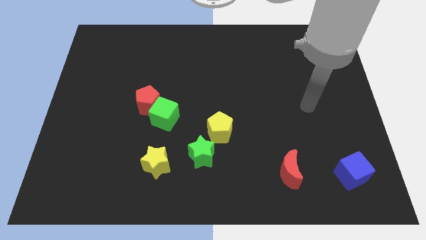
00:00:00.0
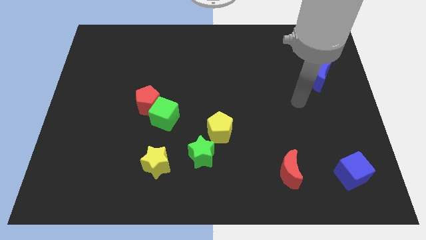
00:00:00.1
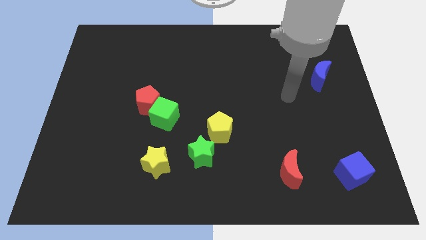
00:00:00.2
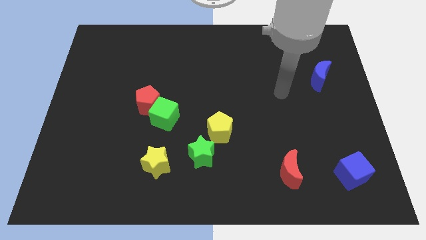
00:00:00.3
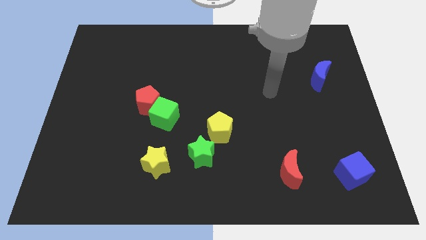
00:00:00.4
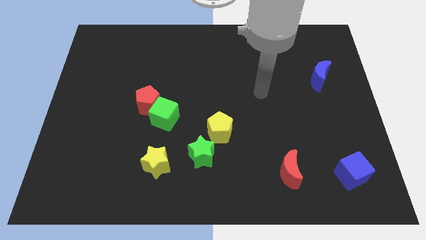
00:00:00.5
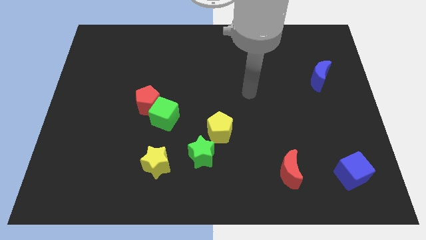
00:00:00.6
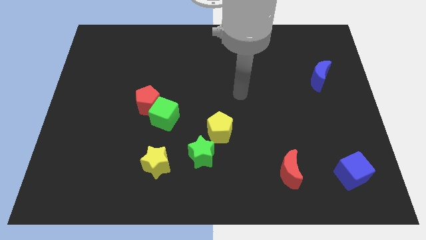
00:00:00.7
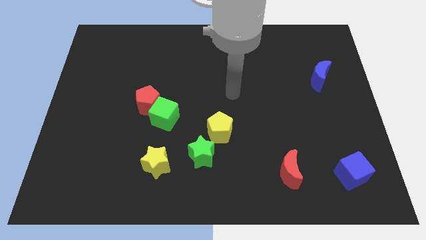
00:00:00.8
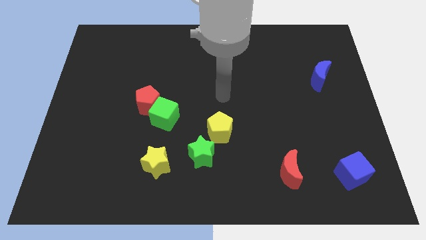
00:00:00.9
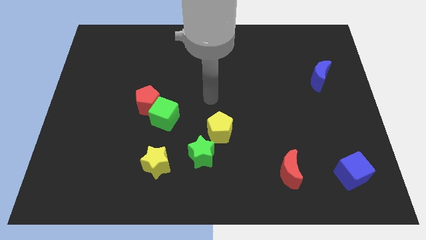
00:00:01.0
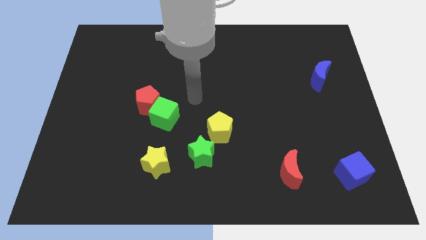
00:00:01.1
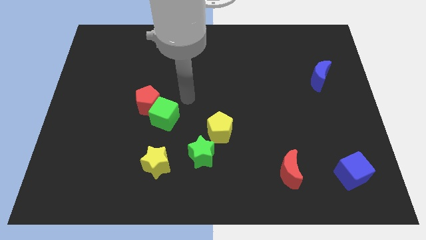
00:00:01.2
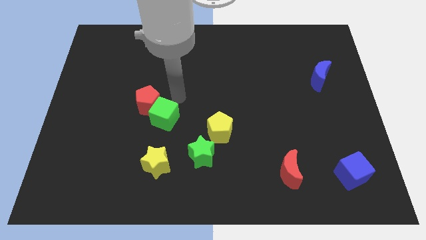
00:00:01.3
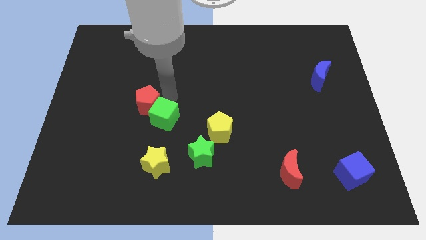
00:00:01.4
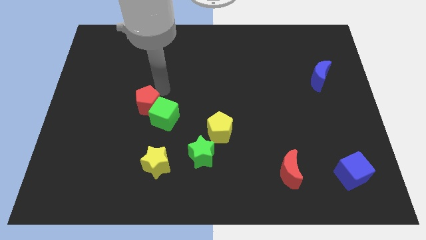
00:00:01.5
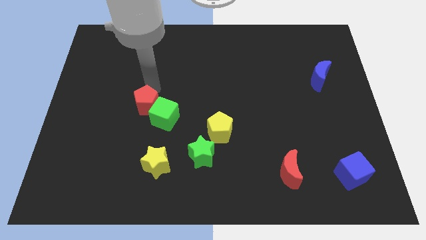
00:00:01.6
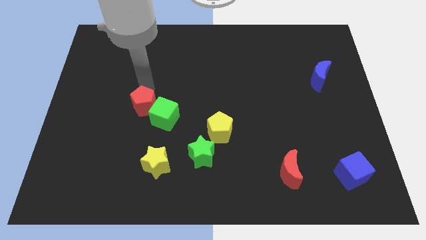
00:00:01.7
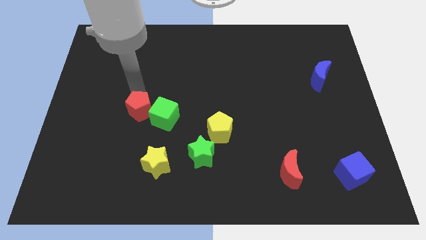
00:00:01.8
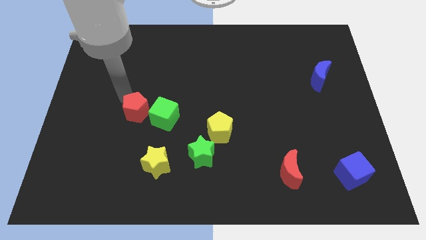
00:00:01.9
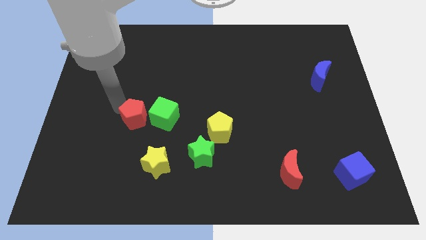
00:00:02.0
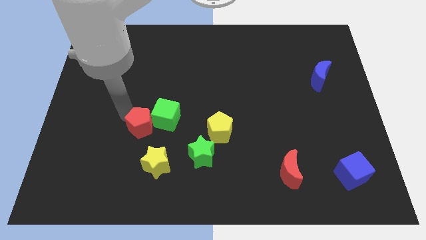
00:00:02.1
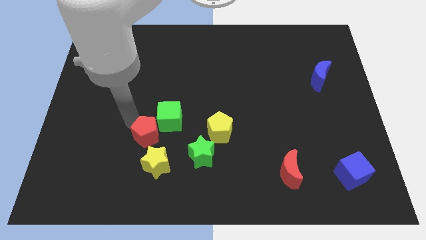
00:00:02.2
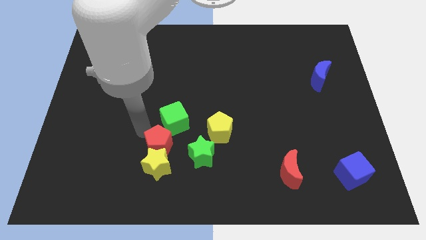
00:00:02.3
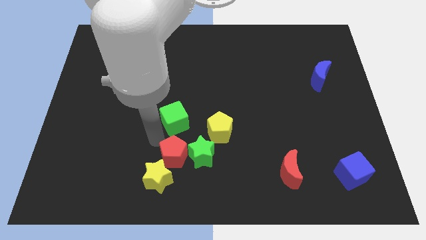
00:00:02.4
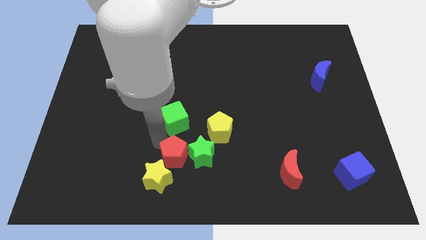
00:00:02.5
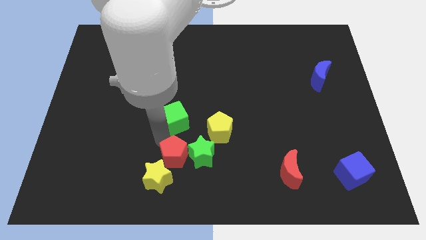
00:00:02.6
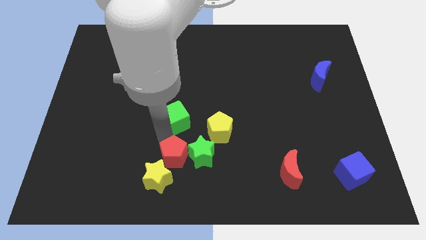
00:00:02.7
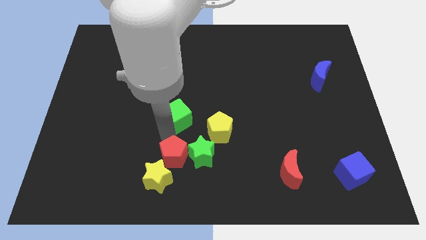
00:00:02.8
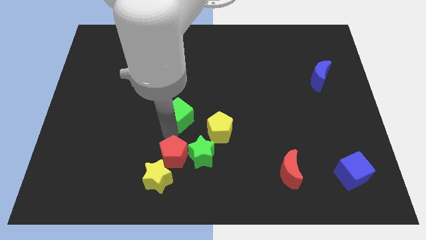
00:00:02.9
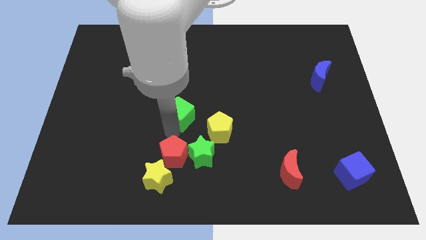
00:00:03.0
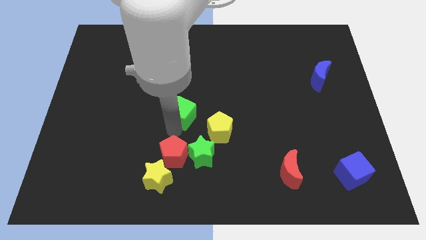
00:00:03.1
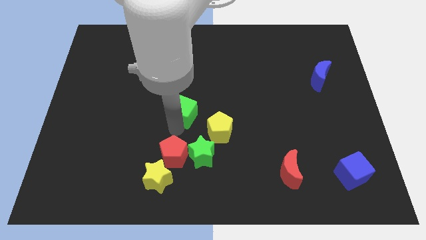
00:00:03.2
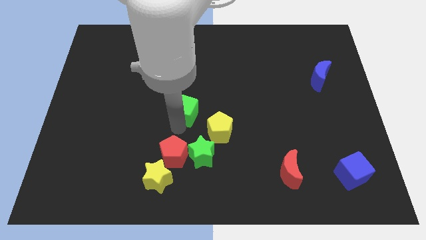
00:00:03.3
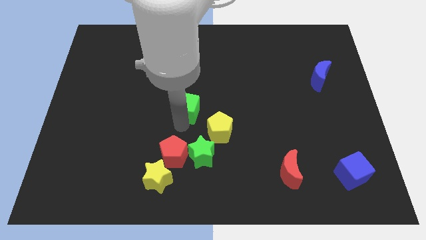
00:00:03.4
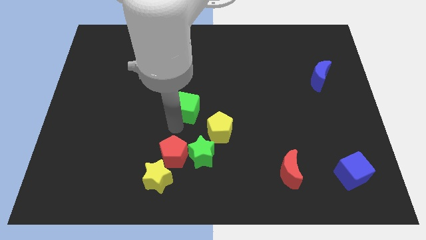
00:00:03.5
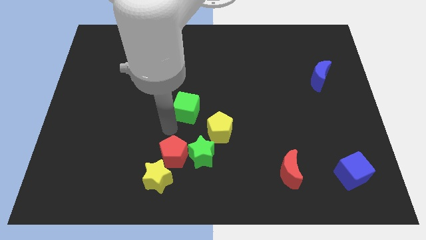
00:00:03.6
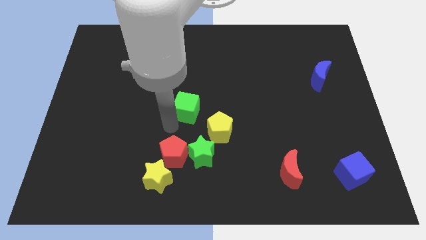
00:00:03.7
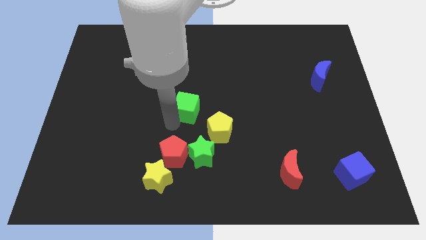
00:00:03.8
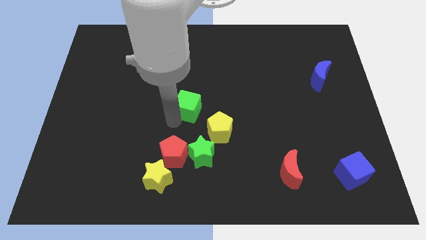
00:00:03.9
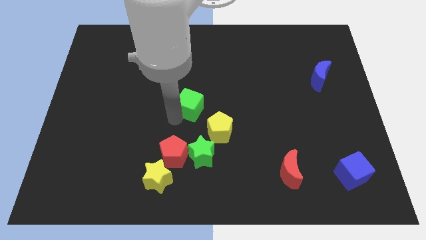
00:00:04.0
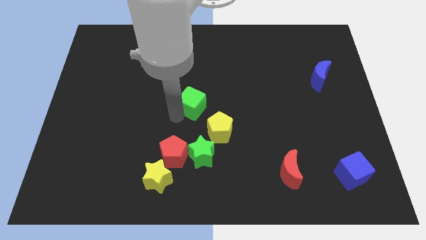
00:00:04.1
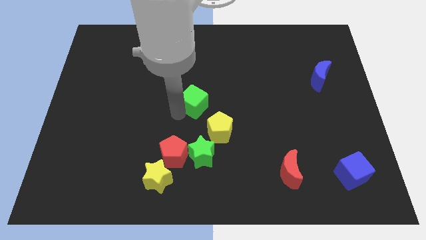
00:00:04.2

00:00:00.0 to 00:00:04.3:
push the green cube a little upwards and to the right diagonally

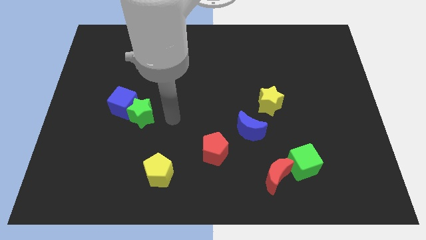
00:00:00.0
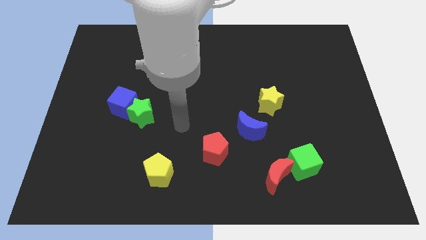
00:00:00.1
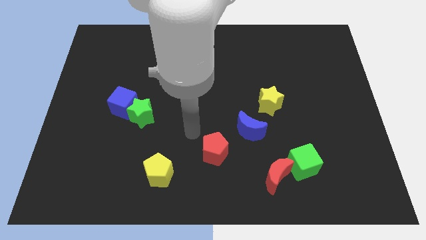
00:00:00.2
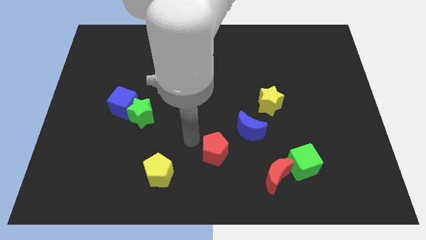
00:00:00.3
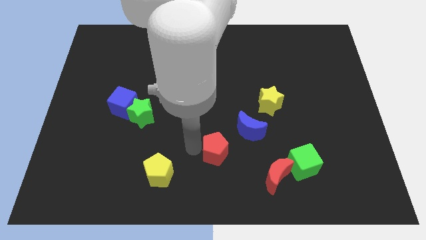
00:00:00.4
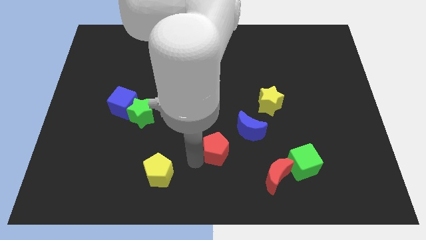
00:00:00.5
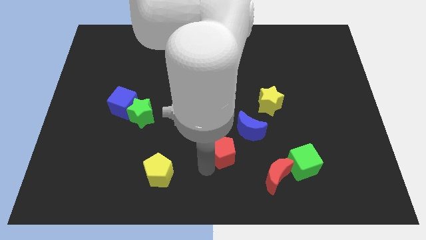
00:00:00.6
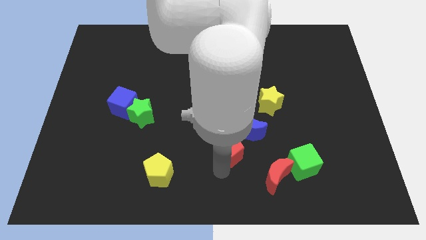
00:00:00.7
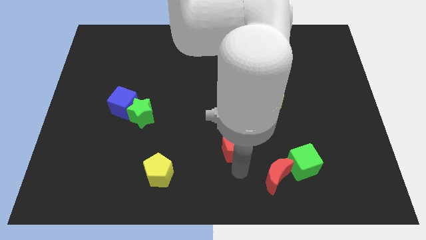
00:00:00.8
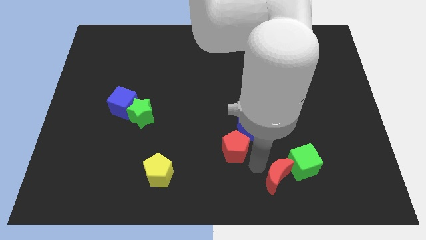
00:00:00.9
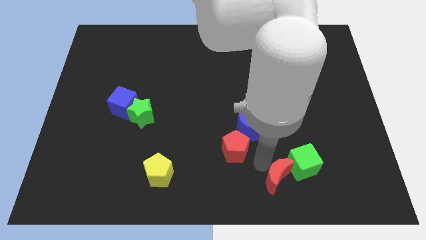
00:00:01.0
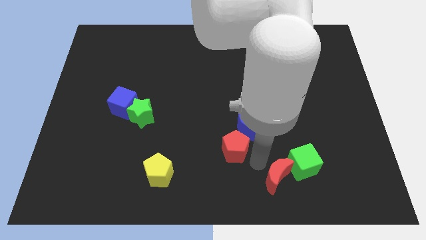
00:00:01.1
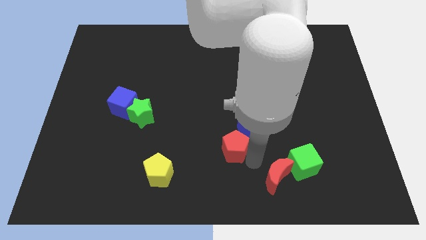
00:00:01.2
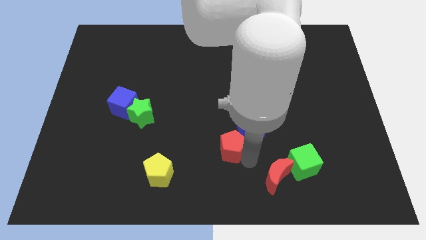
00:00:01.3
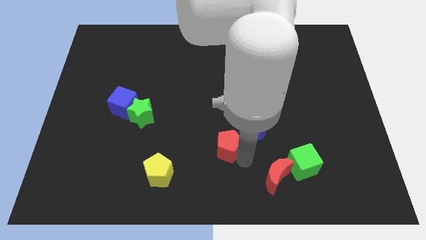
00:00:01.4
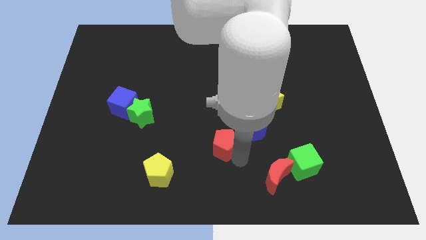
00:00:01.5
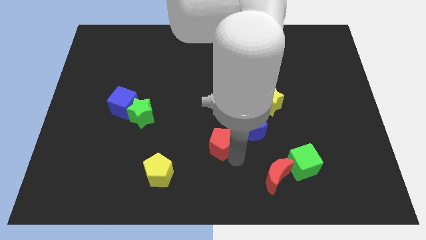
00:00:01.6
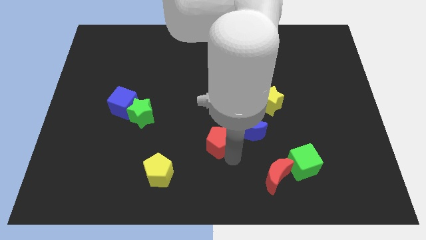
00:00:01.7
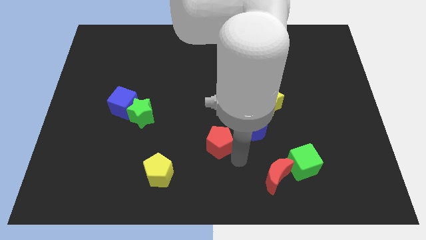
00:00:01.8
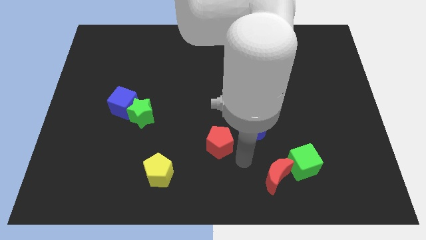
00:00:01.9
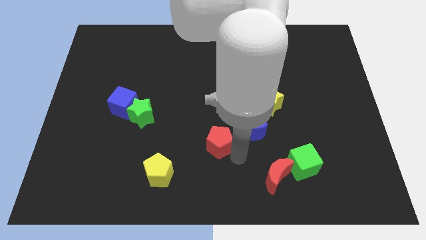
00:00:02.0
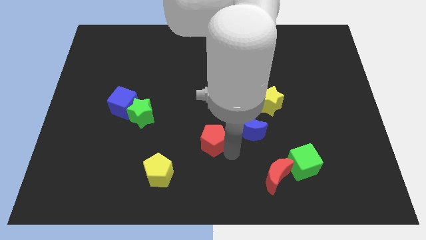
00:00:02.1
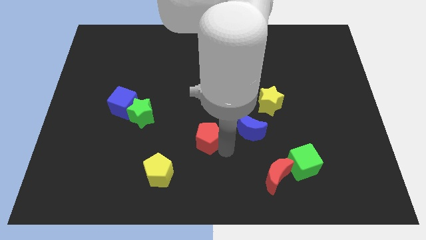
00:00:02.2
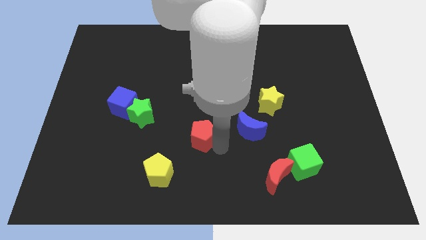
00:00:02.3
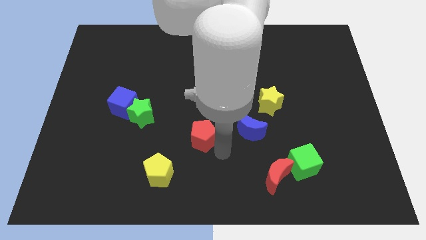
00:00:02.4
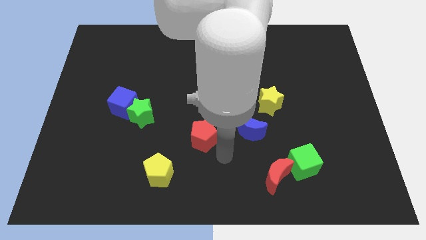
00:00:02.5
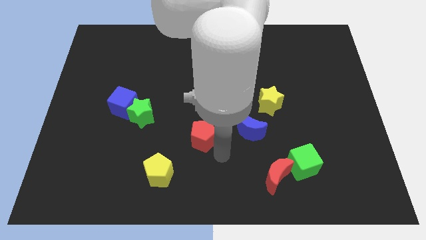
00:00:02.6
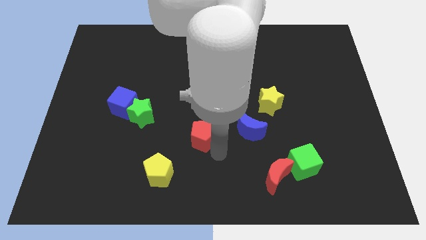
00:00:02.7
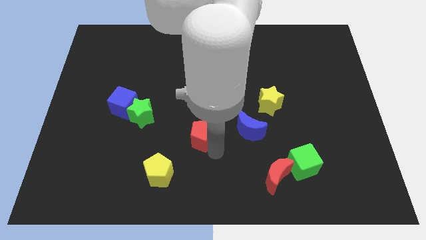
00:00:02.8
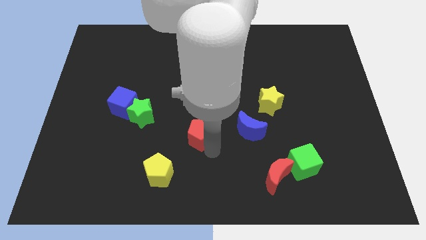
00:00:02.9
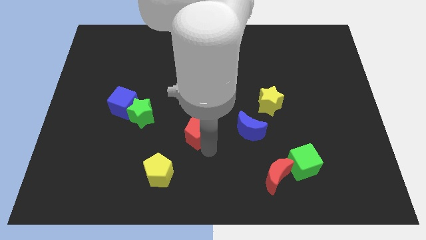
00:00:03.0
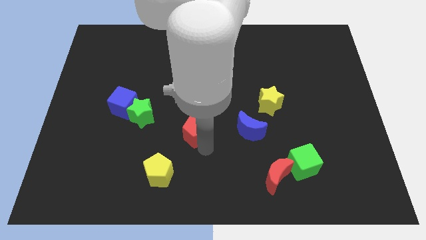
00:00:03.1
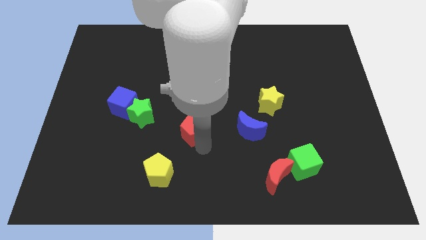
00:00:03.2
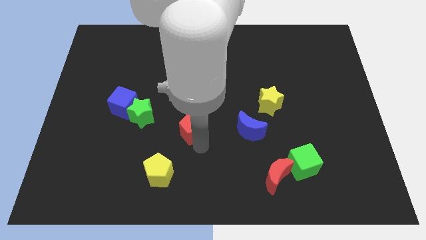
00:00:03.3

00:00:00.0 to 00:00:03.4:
slide the red pentagon upwards and left slightly

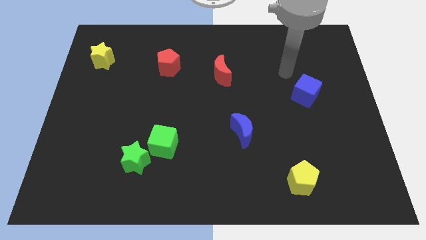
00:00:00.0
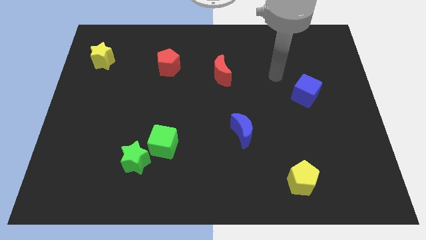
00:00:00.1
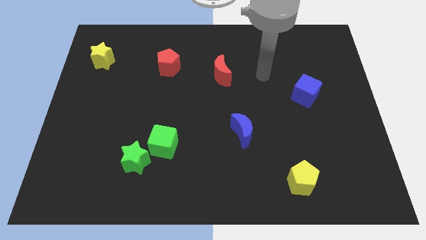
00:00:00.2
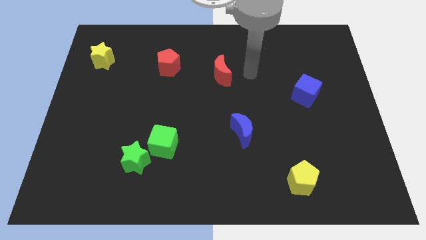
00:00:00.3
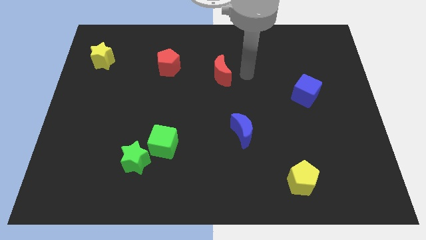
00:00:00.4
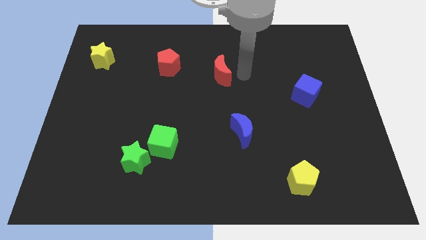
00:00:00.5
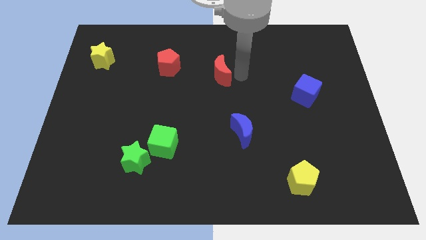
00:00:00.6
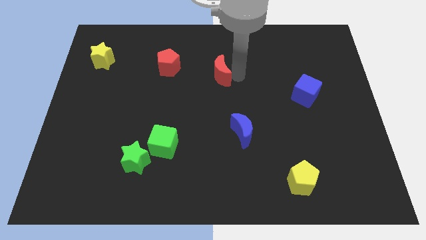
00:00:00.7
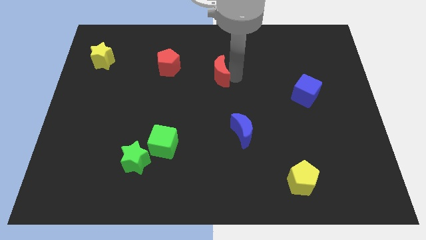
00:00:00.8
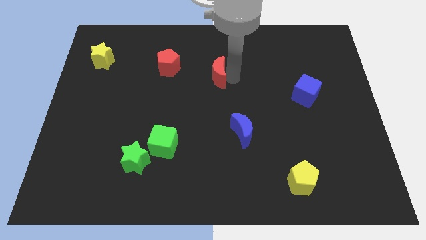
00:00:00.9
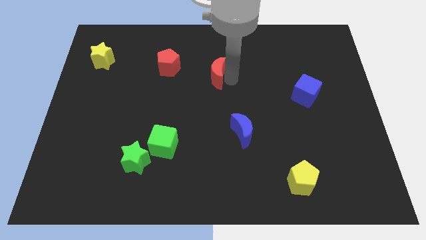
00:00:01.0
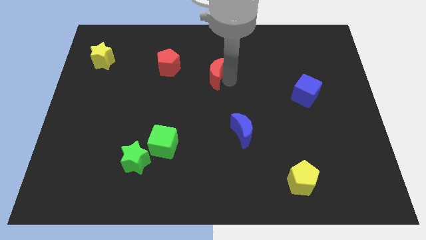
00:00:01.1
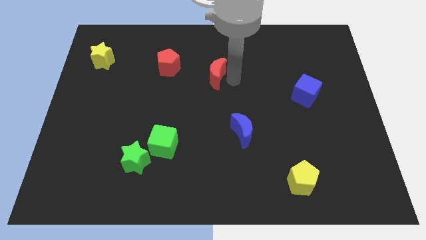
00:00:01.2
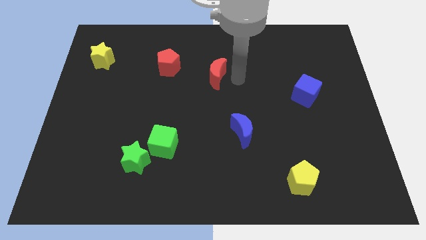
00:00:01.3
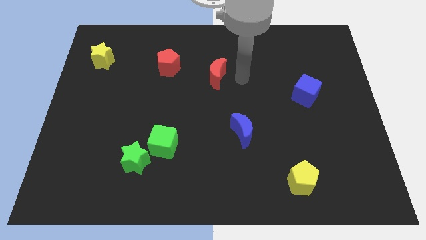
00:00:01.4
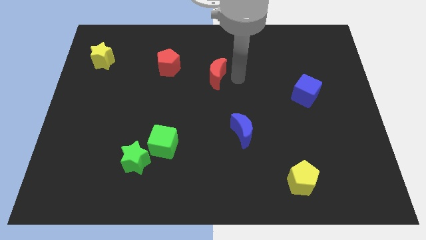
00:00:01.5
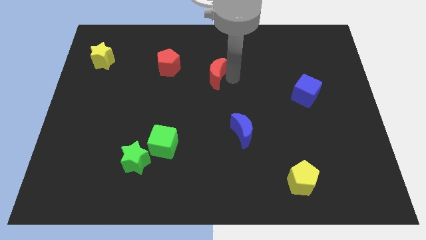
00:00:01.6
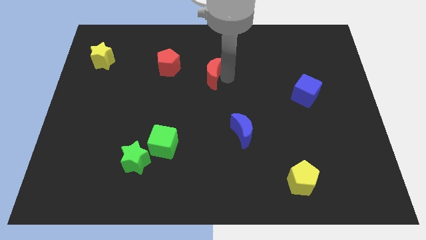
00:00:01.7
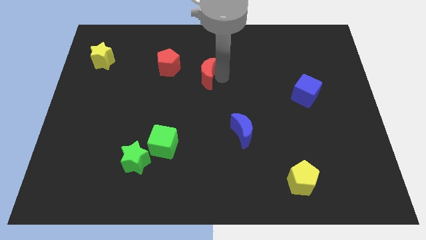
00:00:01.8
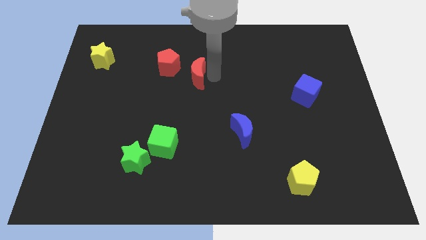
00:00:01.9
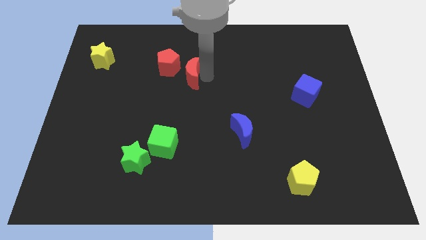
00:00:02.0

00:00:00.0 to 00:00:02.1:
move the red moon a bit left
